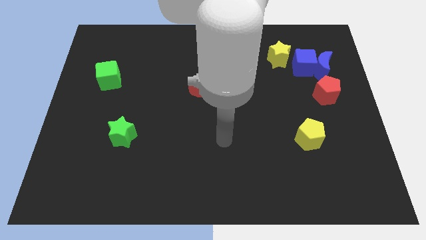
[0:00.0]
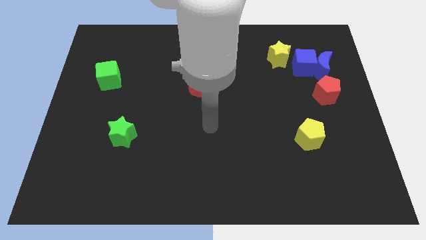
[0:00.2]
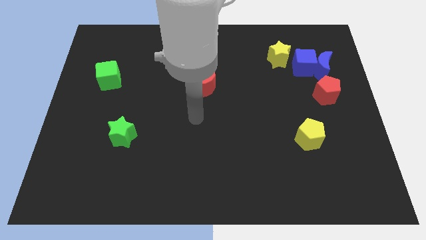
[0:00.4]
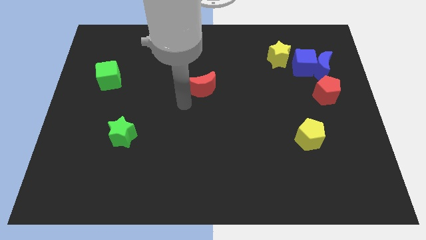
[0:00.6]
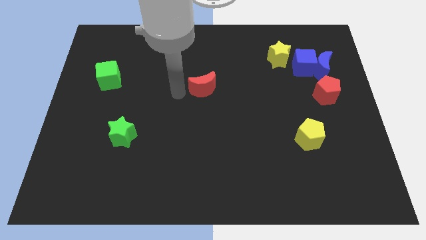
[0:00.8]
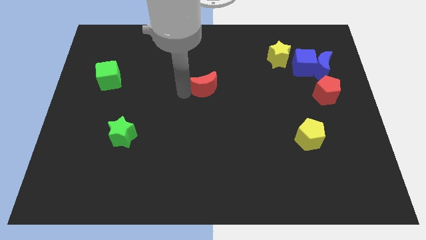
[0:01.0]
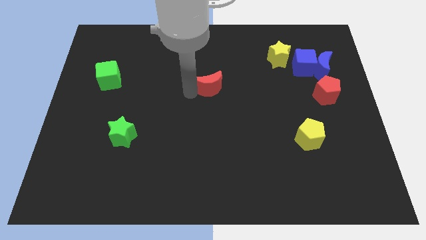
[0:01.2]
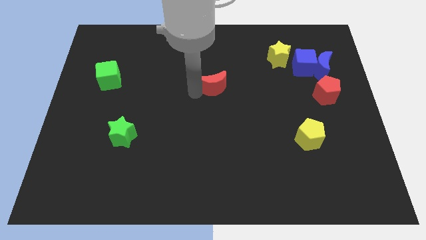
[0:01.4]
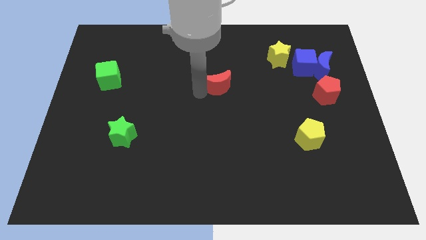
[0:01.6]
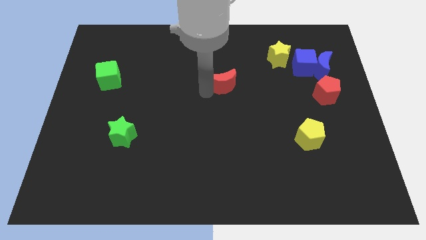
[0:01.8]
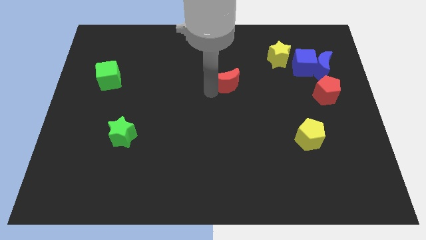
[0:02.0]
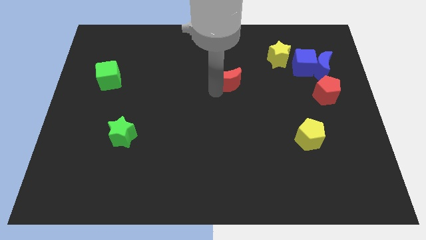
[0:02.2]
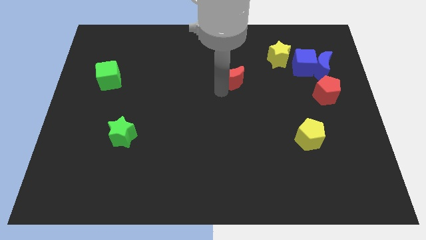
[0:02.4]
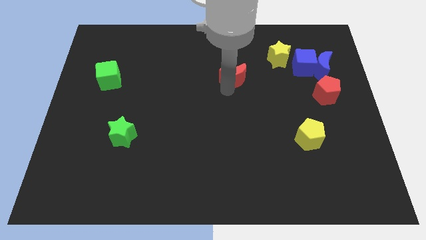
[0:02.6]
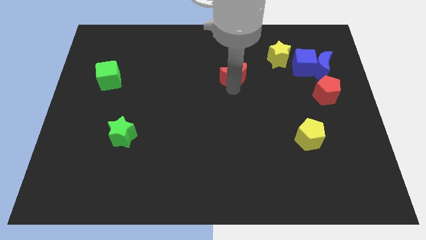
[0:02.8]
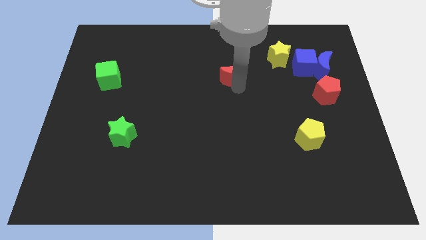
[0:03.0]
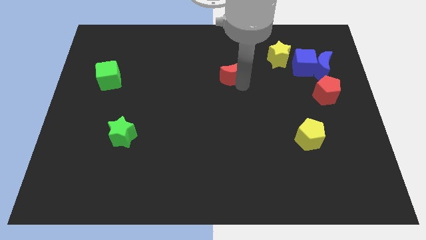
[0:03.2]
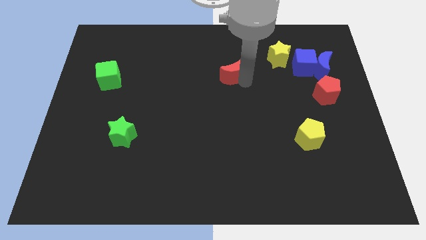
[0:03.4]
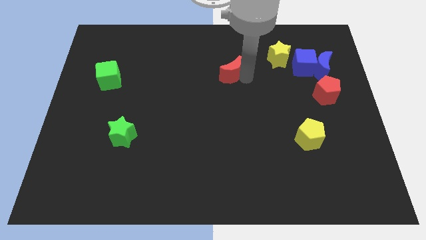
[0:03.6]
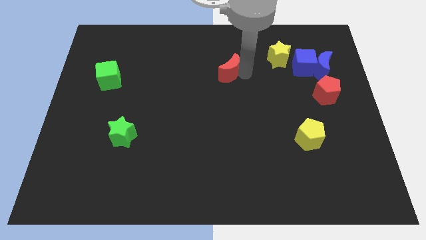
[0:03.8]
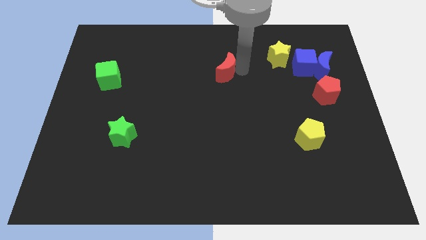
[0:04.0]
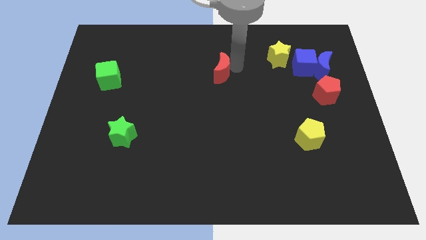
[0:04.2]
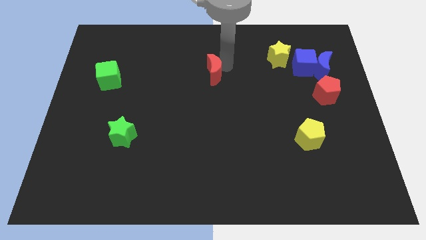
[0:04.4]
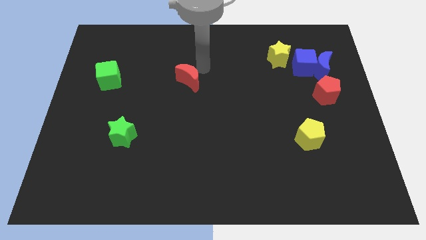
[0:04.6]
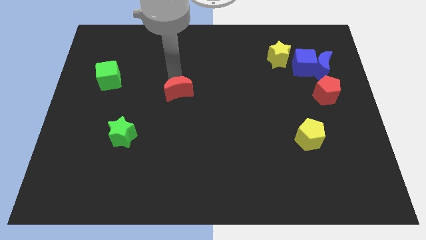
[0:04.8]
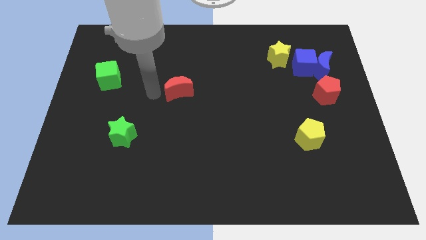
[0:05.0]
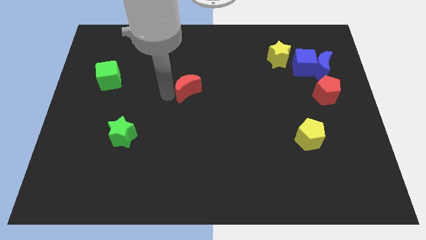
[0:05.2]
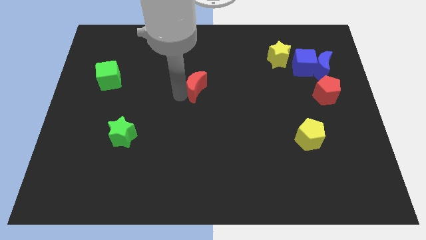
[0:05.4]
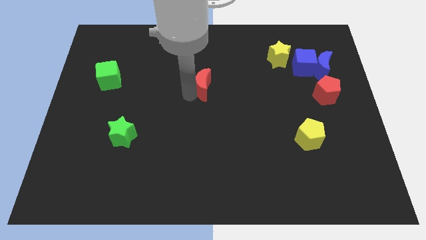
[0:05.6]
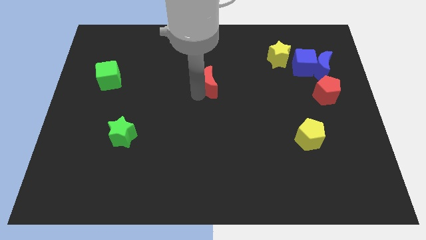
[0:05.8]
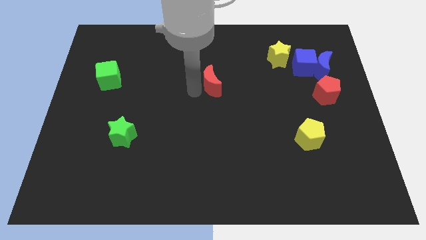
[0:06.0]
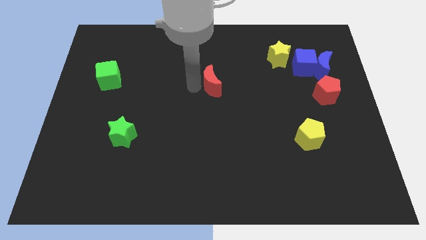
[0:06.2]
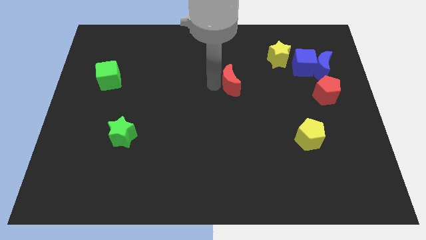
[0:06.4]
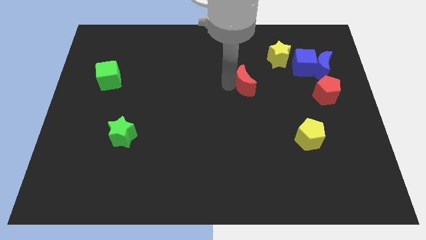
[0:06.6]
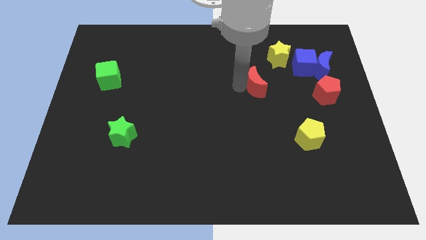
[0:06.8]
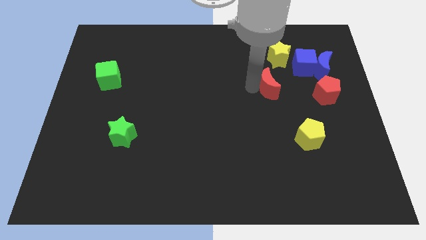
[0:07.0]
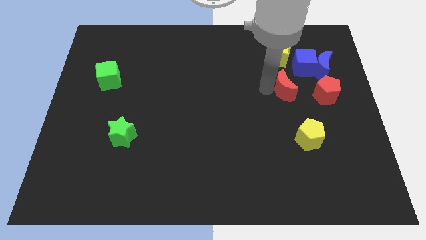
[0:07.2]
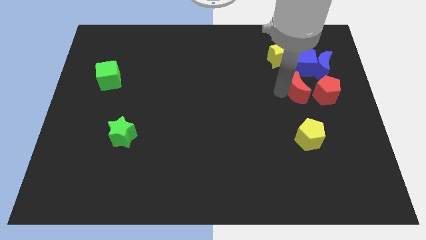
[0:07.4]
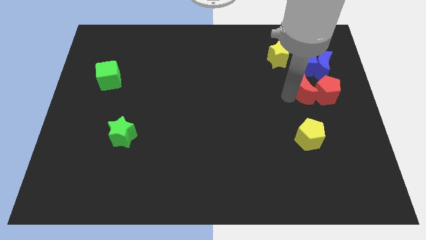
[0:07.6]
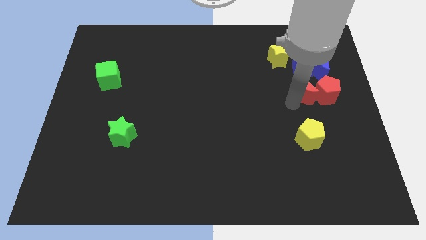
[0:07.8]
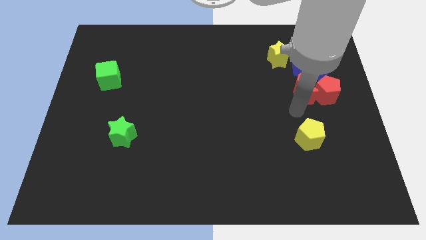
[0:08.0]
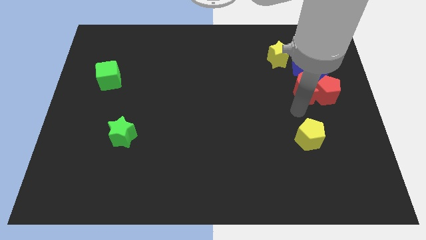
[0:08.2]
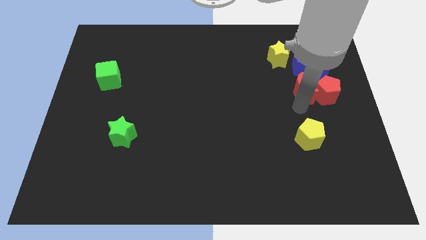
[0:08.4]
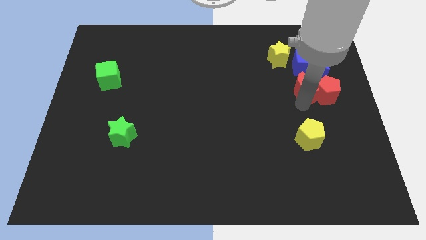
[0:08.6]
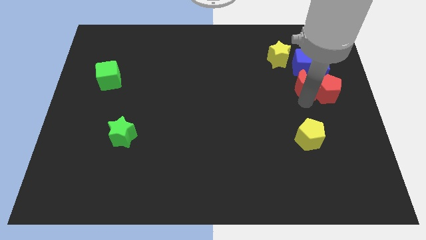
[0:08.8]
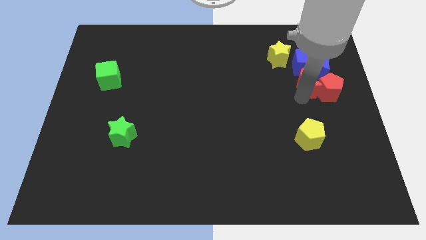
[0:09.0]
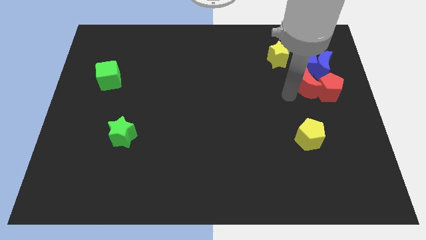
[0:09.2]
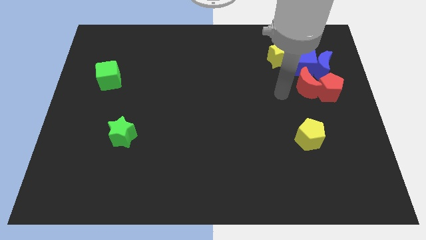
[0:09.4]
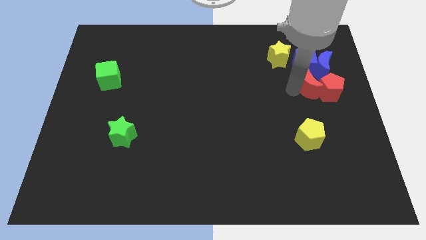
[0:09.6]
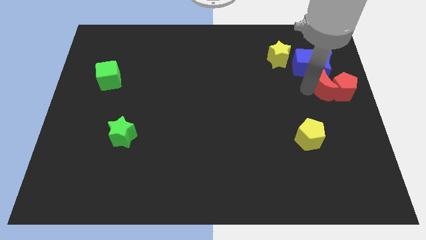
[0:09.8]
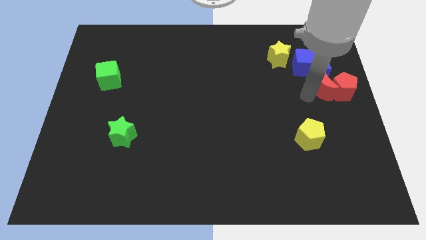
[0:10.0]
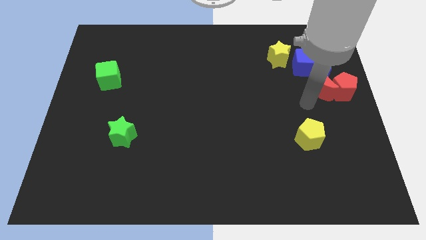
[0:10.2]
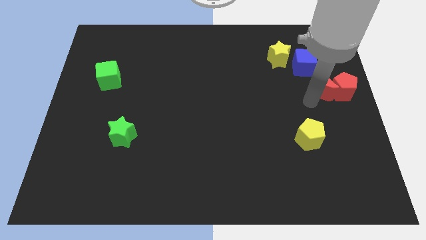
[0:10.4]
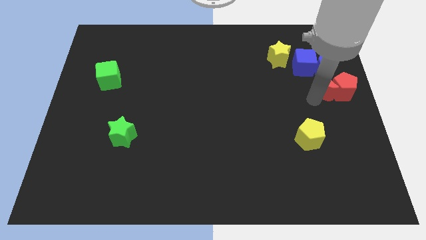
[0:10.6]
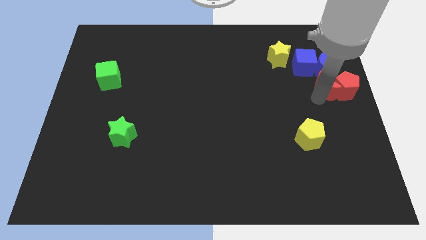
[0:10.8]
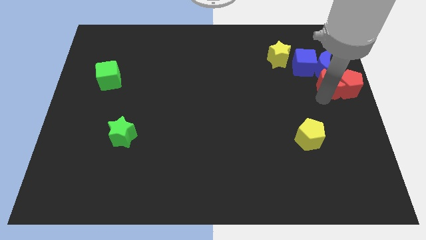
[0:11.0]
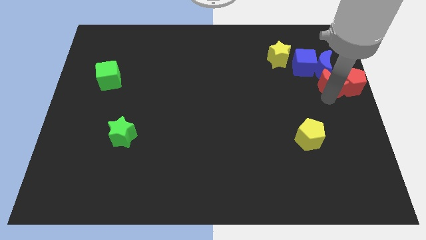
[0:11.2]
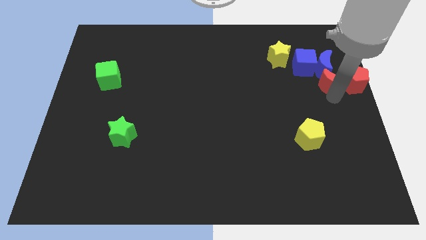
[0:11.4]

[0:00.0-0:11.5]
put the red moon next to the blue moon

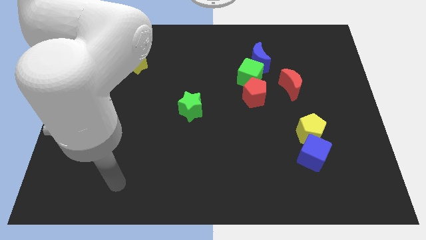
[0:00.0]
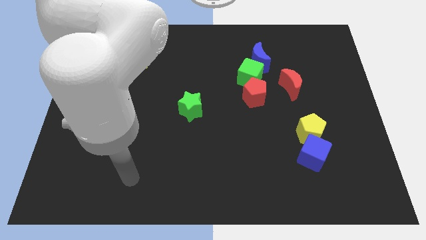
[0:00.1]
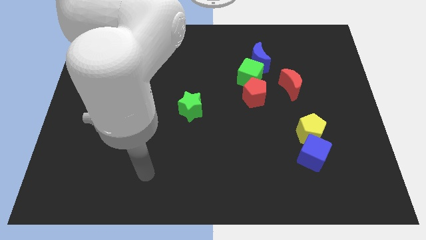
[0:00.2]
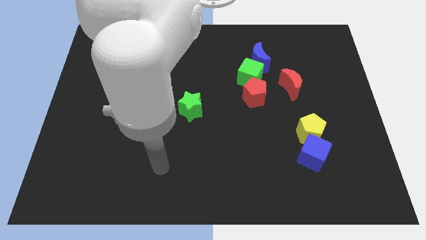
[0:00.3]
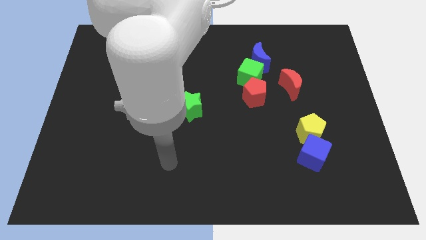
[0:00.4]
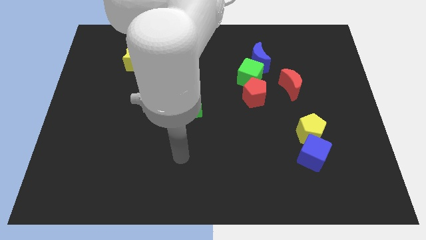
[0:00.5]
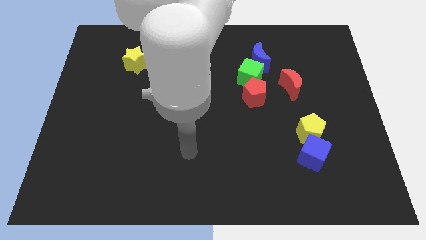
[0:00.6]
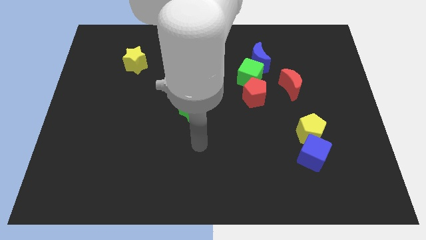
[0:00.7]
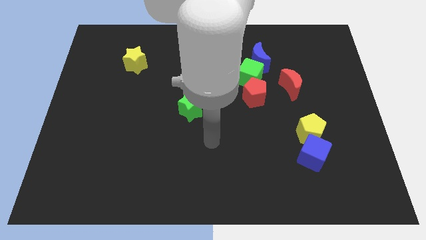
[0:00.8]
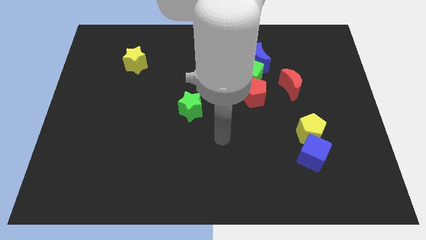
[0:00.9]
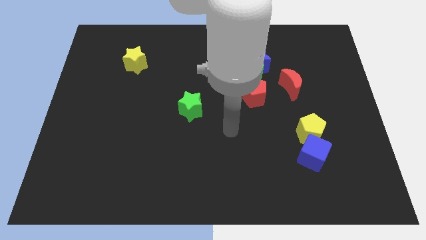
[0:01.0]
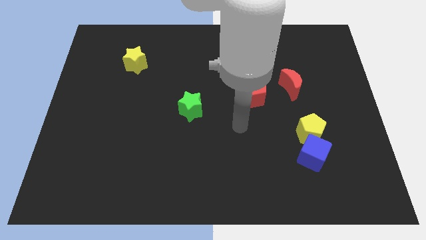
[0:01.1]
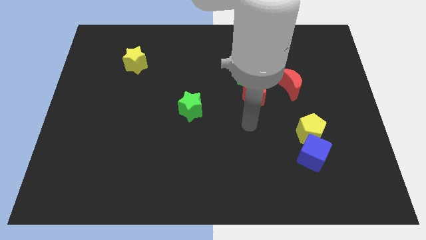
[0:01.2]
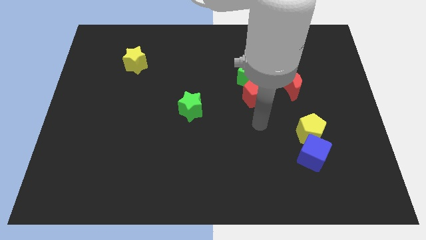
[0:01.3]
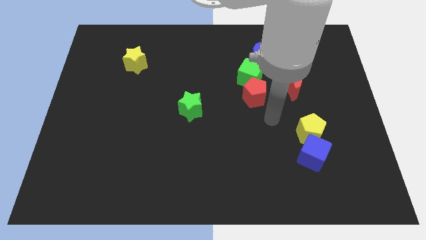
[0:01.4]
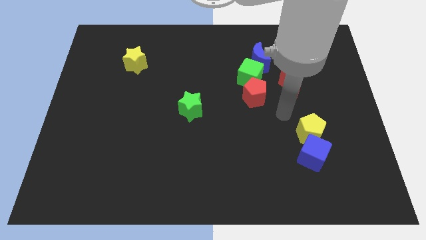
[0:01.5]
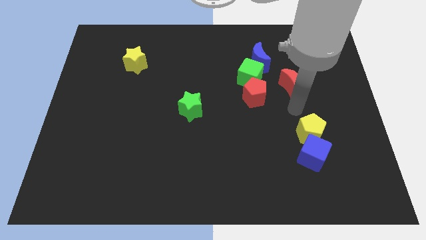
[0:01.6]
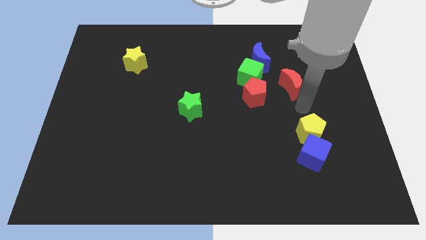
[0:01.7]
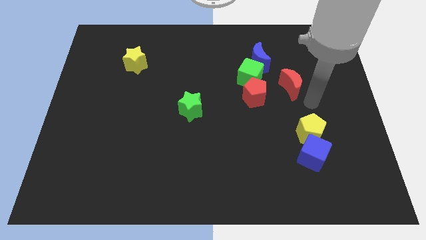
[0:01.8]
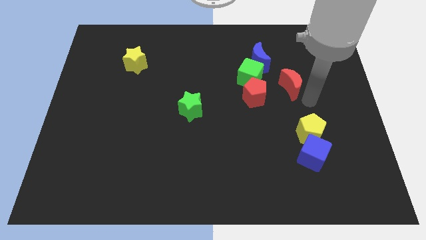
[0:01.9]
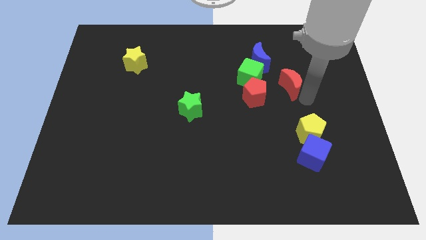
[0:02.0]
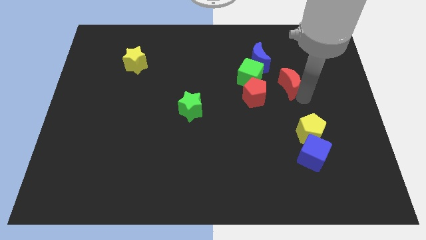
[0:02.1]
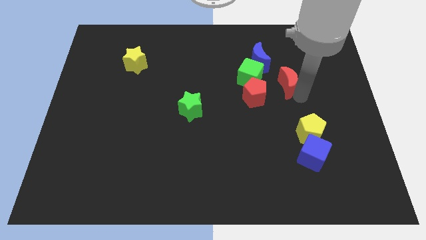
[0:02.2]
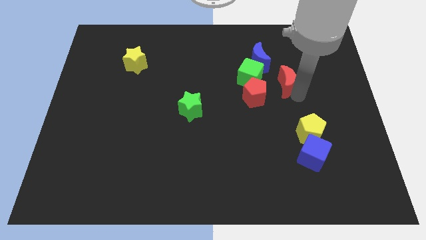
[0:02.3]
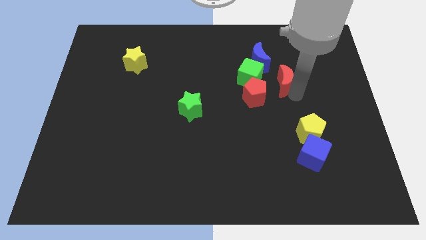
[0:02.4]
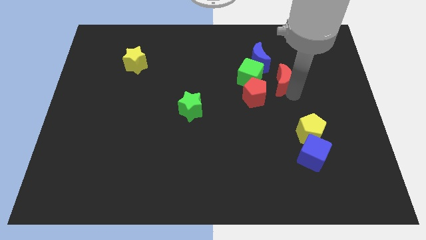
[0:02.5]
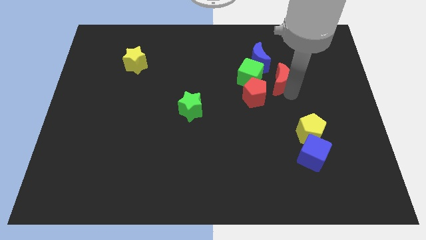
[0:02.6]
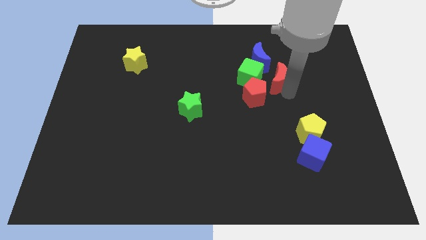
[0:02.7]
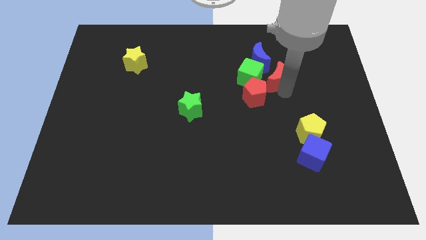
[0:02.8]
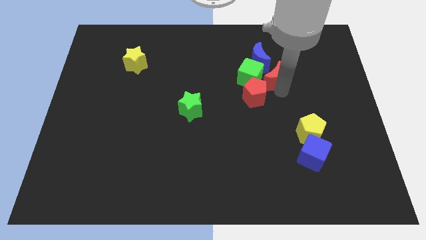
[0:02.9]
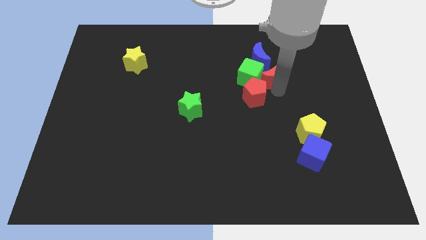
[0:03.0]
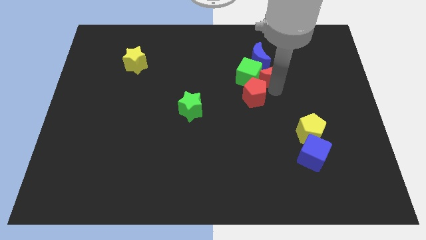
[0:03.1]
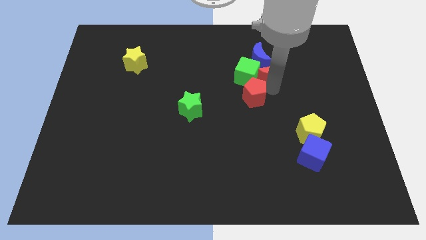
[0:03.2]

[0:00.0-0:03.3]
move the red moon to the blue moon
